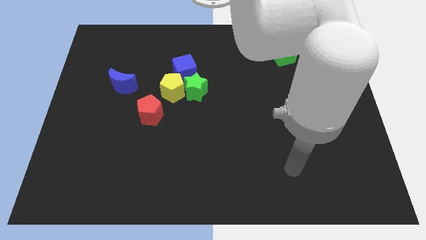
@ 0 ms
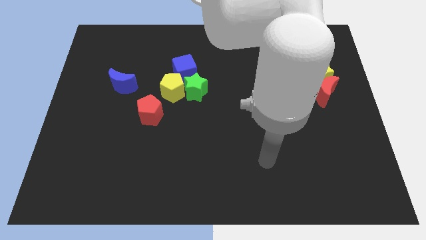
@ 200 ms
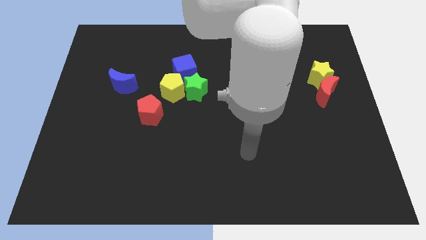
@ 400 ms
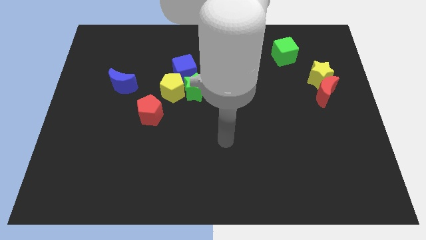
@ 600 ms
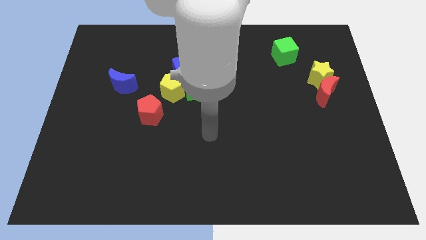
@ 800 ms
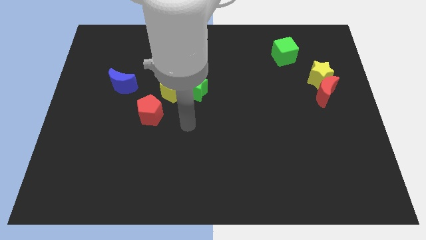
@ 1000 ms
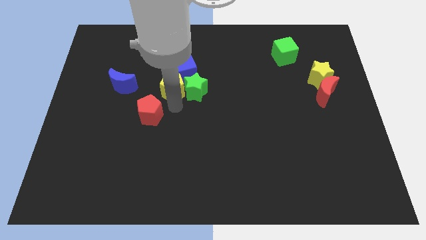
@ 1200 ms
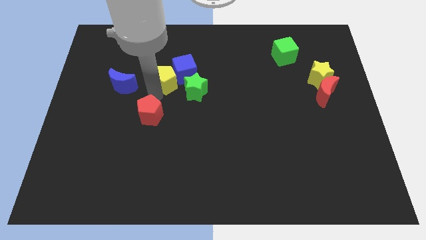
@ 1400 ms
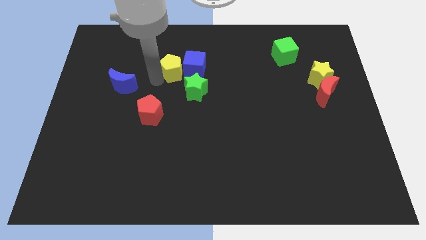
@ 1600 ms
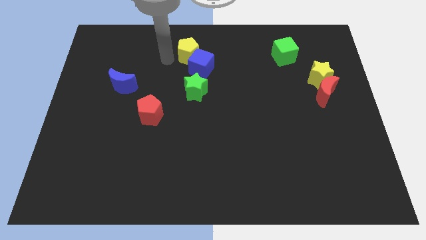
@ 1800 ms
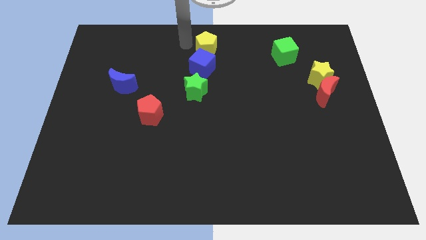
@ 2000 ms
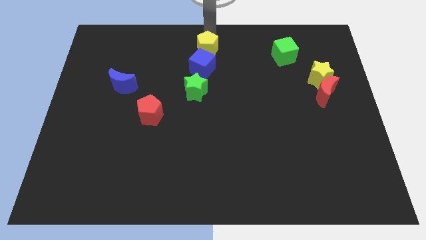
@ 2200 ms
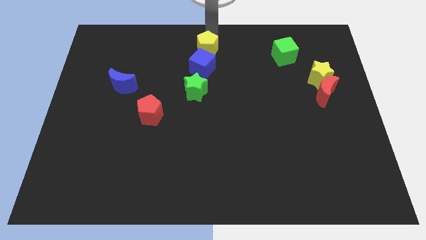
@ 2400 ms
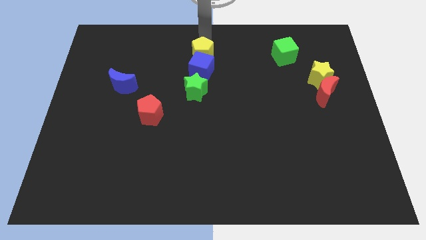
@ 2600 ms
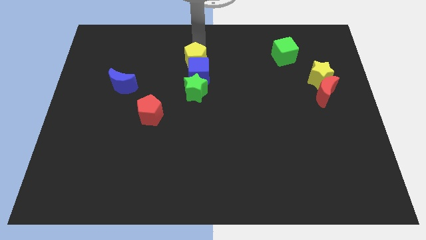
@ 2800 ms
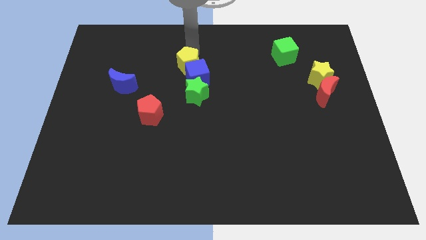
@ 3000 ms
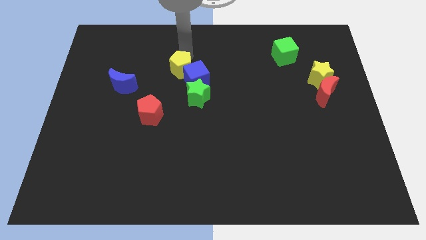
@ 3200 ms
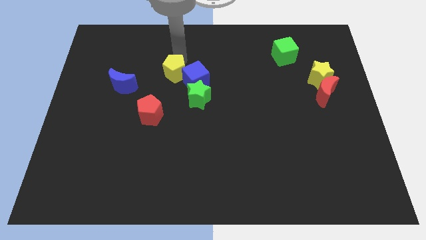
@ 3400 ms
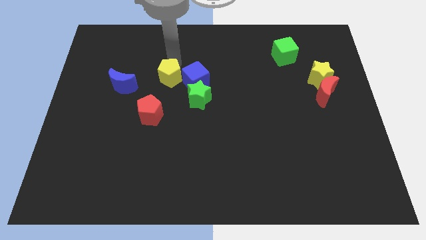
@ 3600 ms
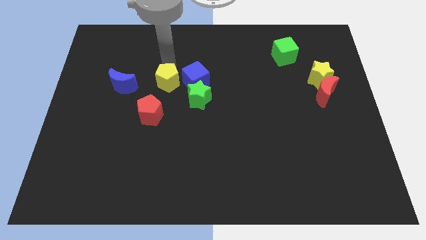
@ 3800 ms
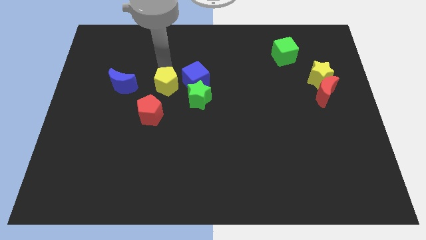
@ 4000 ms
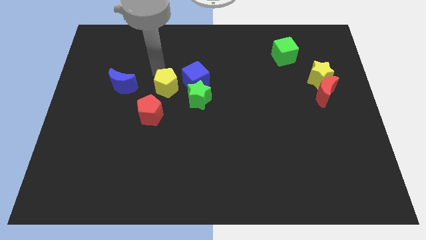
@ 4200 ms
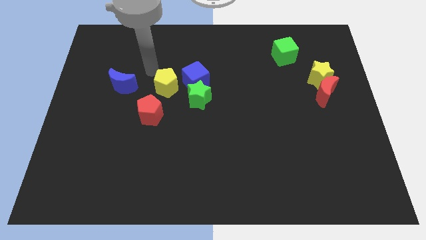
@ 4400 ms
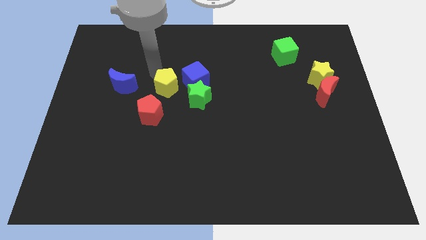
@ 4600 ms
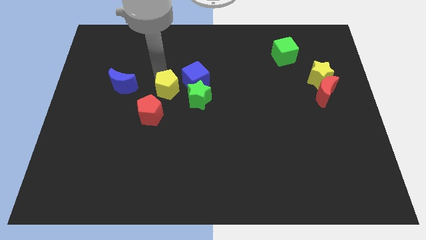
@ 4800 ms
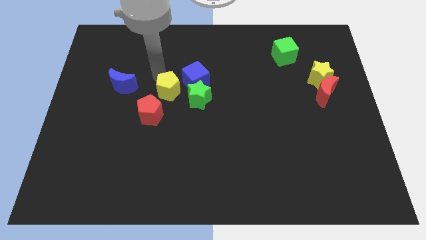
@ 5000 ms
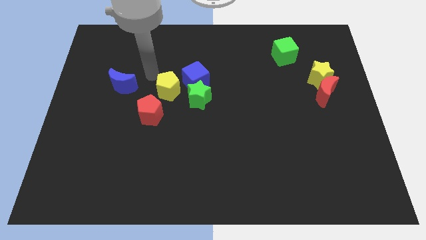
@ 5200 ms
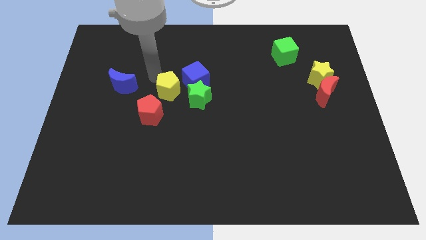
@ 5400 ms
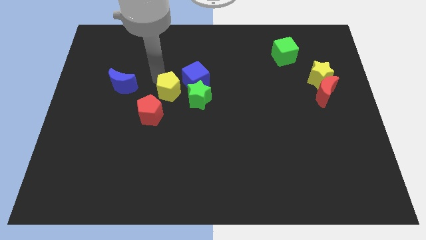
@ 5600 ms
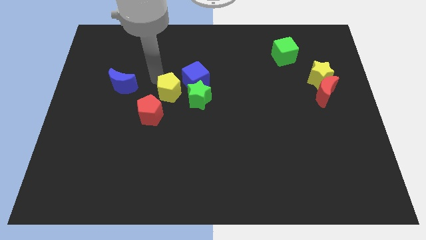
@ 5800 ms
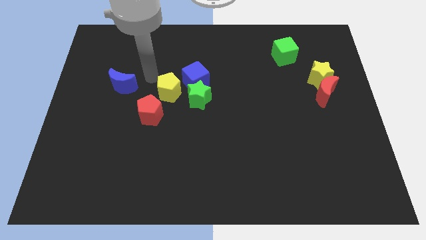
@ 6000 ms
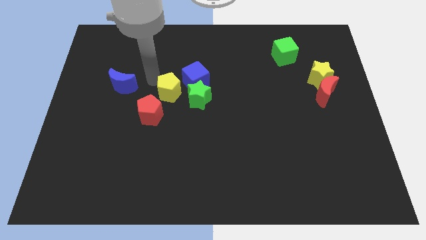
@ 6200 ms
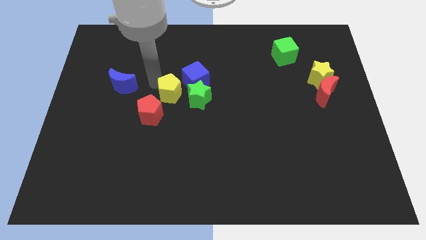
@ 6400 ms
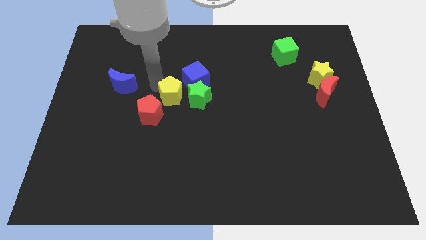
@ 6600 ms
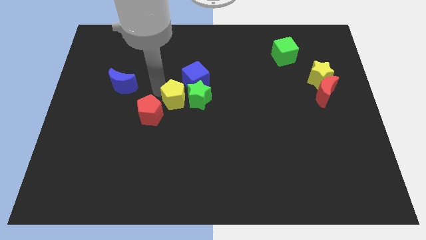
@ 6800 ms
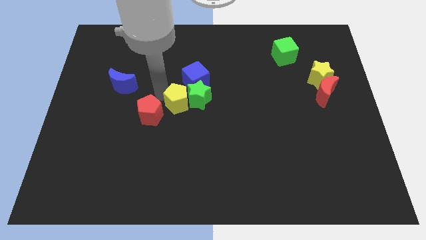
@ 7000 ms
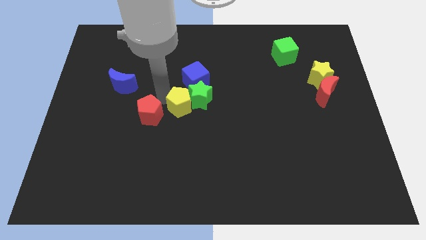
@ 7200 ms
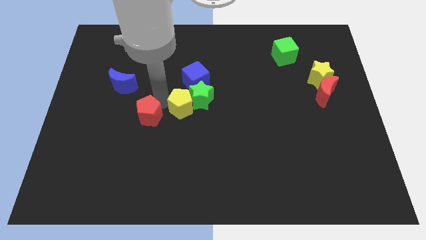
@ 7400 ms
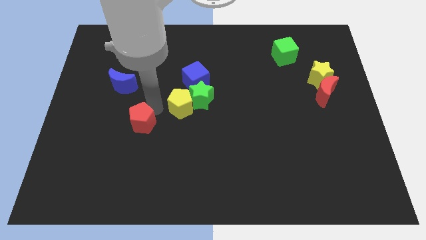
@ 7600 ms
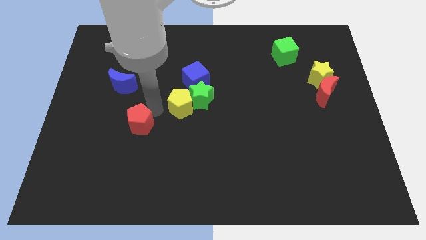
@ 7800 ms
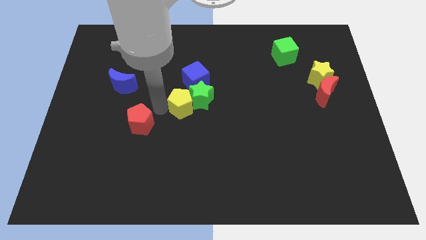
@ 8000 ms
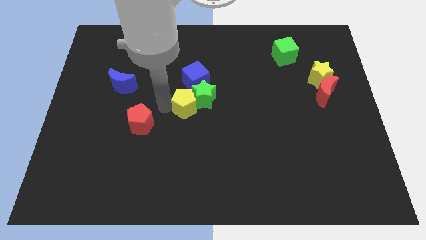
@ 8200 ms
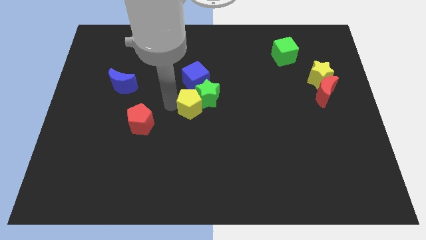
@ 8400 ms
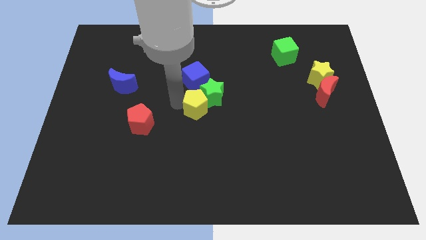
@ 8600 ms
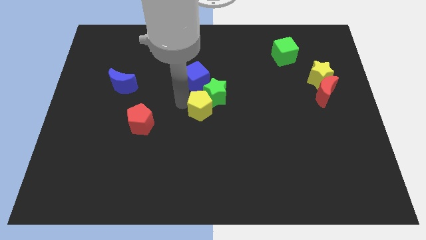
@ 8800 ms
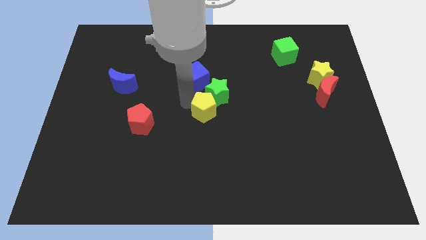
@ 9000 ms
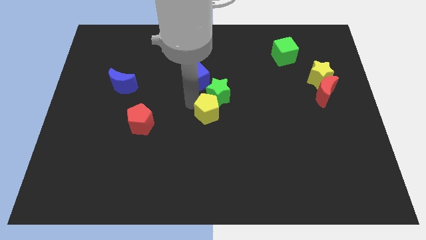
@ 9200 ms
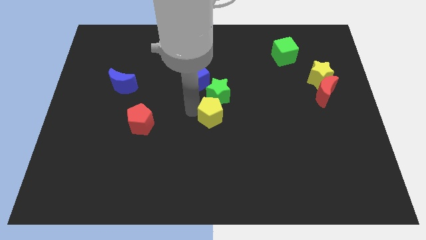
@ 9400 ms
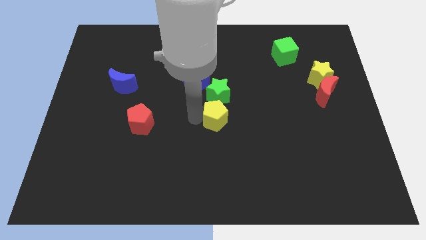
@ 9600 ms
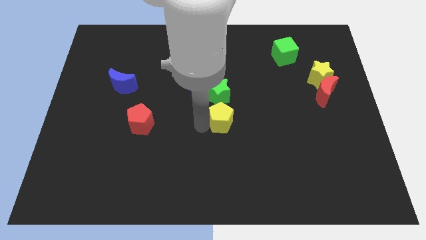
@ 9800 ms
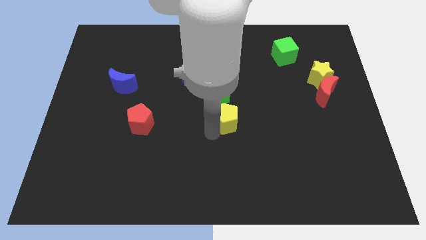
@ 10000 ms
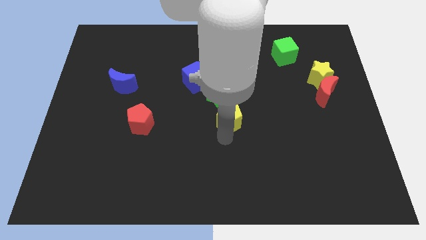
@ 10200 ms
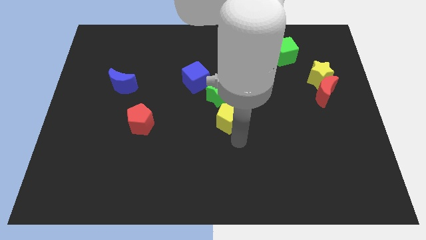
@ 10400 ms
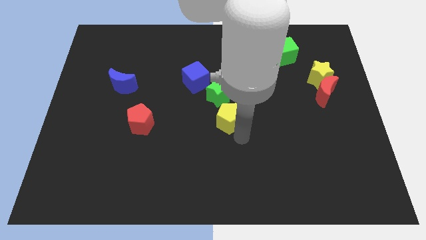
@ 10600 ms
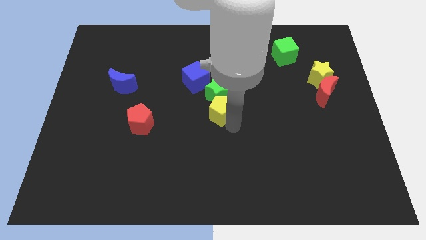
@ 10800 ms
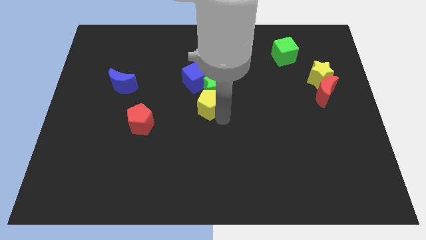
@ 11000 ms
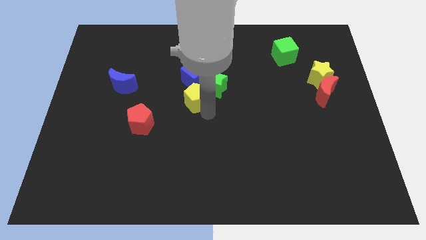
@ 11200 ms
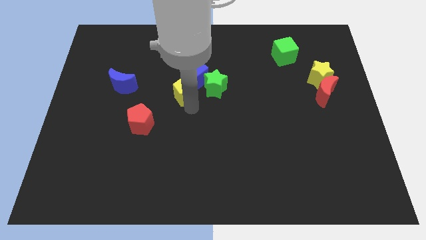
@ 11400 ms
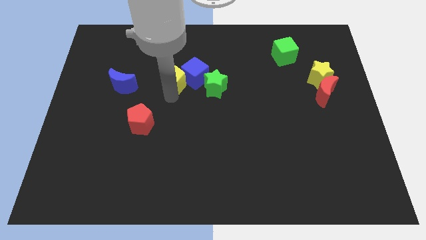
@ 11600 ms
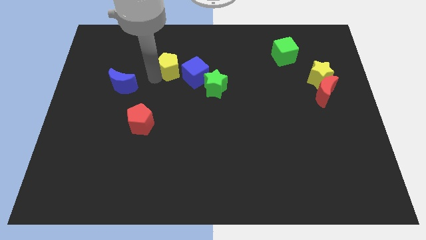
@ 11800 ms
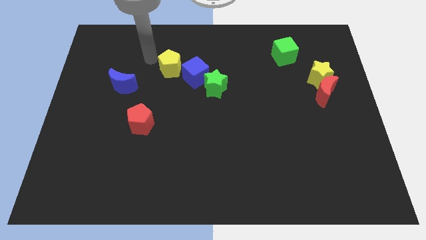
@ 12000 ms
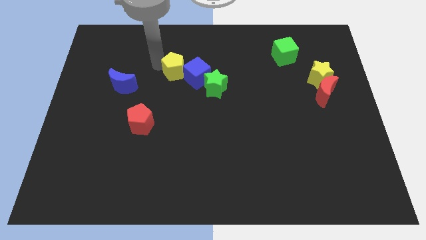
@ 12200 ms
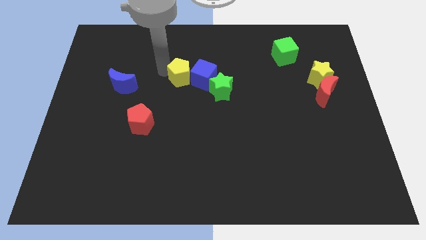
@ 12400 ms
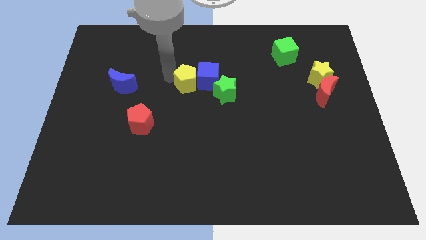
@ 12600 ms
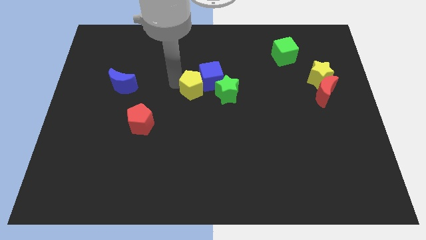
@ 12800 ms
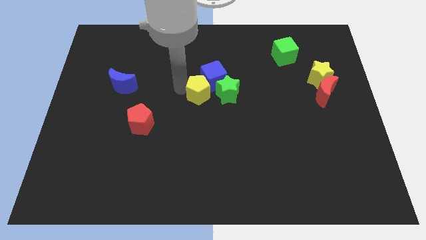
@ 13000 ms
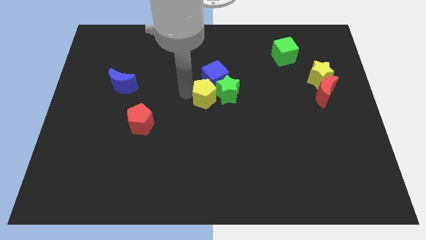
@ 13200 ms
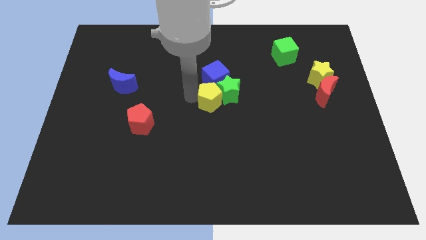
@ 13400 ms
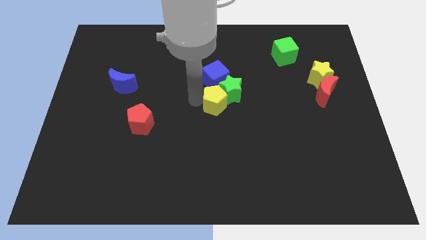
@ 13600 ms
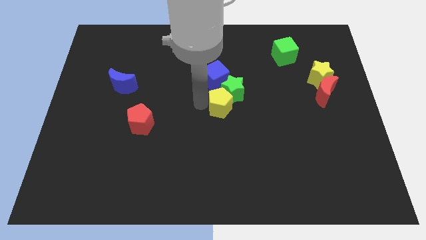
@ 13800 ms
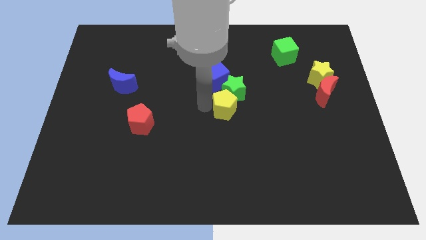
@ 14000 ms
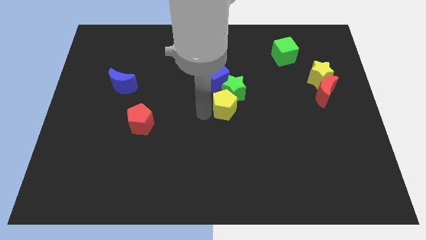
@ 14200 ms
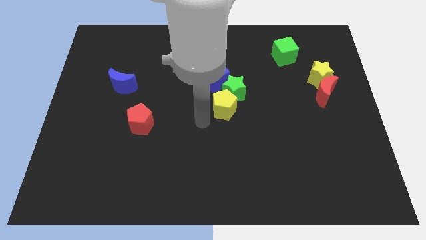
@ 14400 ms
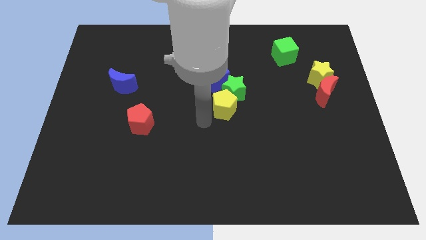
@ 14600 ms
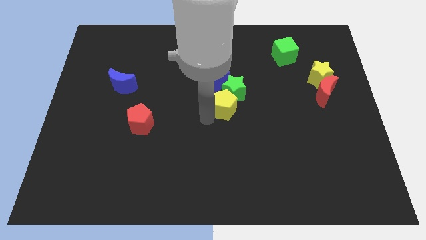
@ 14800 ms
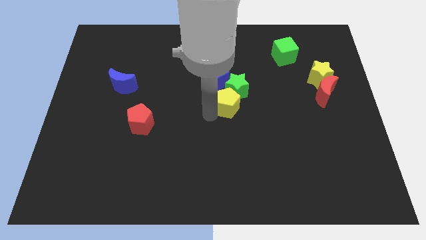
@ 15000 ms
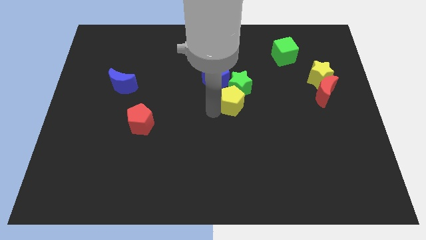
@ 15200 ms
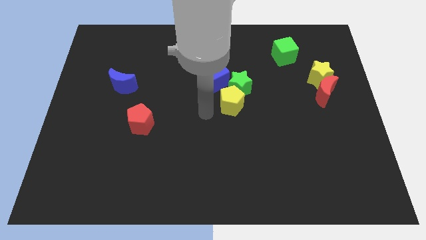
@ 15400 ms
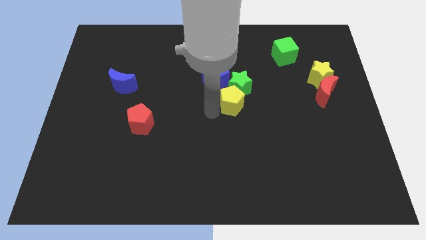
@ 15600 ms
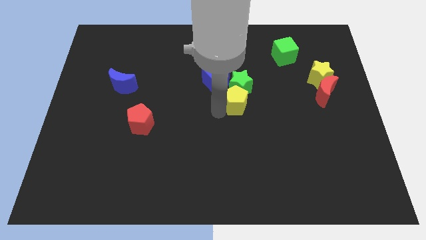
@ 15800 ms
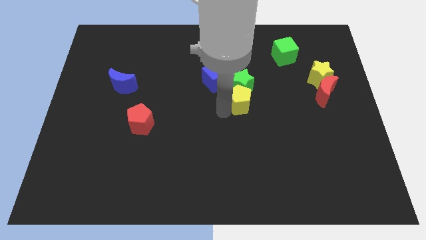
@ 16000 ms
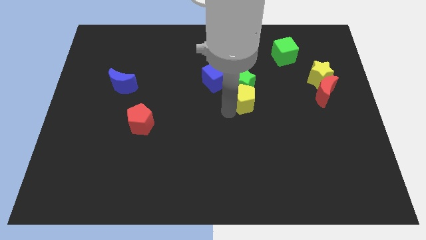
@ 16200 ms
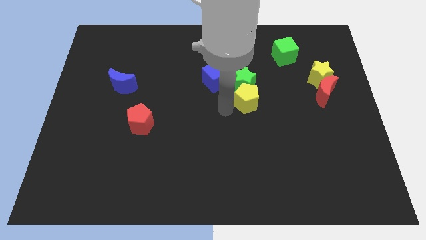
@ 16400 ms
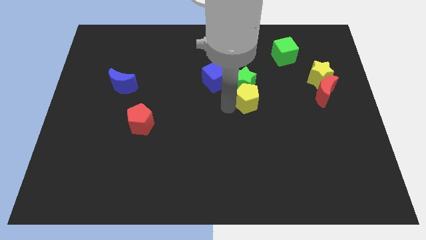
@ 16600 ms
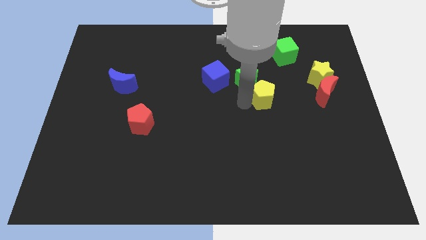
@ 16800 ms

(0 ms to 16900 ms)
slide the yellow pentagon to the left of the red moon

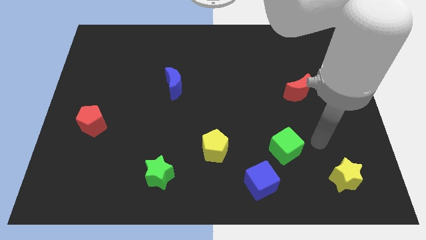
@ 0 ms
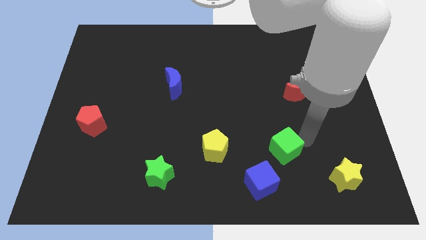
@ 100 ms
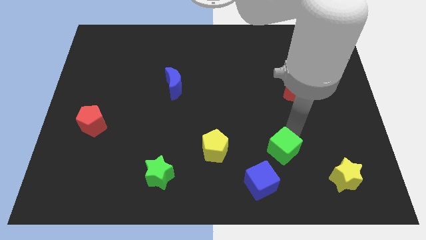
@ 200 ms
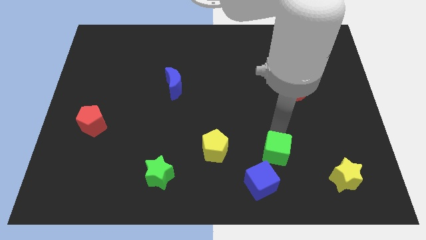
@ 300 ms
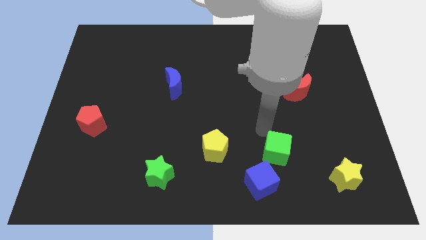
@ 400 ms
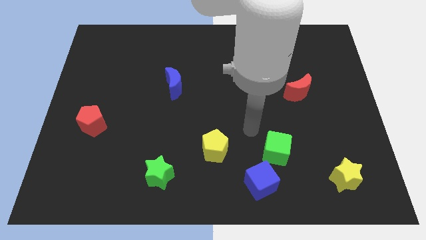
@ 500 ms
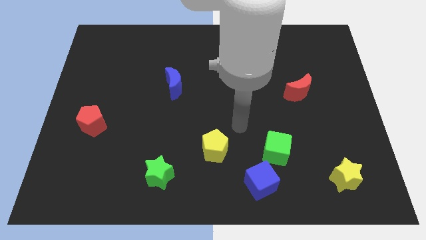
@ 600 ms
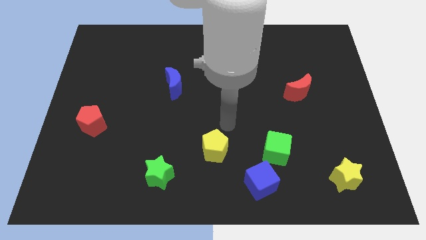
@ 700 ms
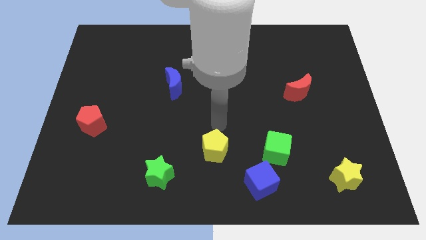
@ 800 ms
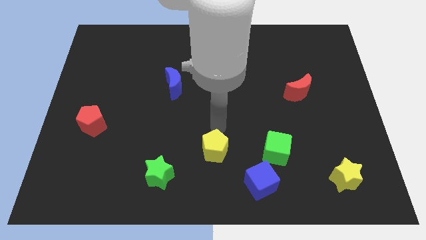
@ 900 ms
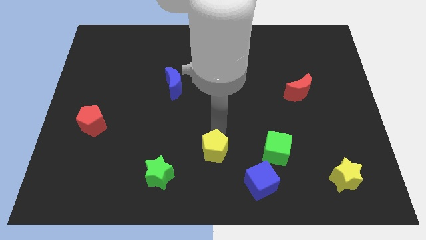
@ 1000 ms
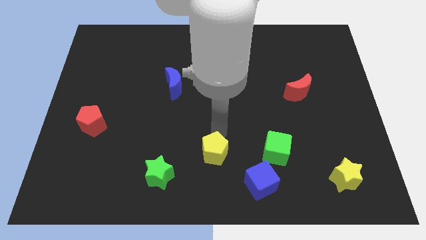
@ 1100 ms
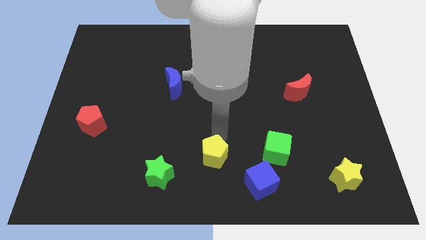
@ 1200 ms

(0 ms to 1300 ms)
slide the yellow pentagon to the right side of the green star
